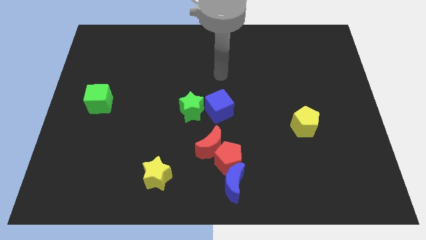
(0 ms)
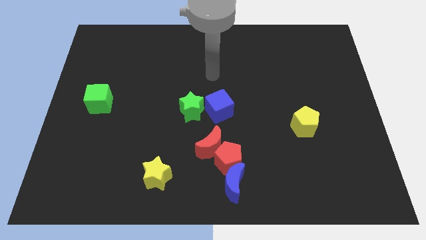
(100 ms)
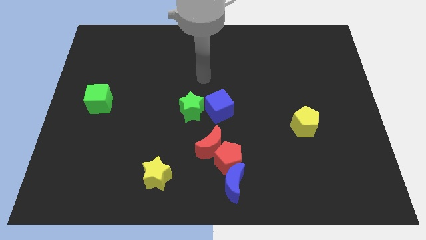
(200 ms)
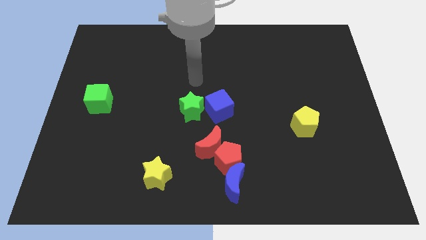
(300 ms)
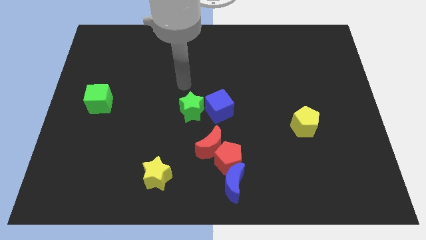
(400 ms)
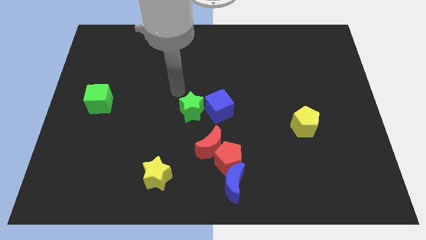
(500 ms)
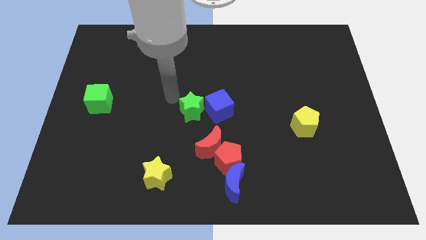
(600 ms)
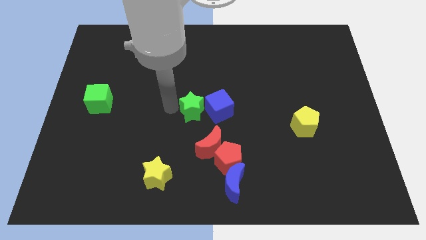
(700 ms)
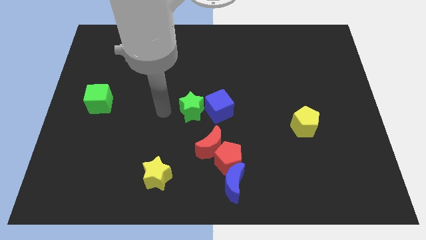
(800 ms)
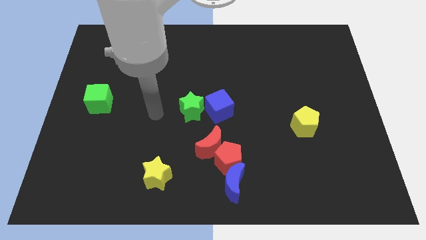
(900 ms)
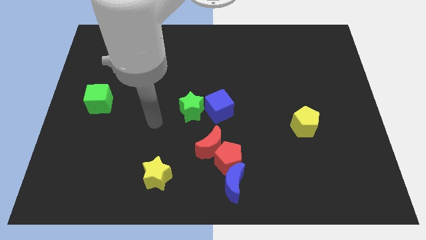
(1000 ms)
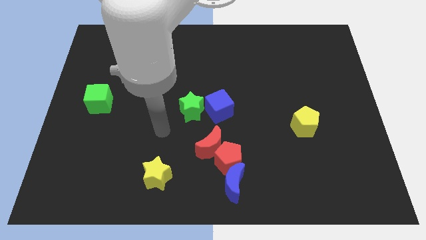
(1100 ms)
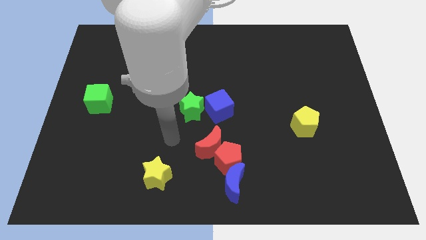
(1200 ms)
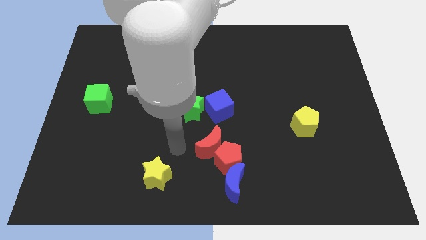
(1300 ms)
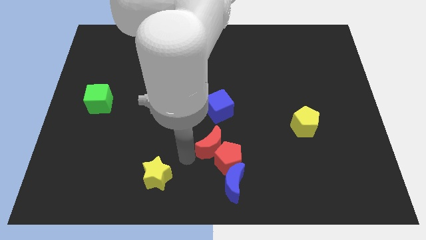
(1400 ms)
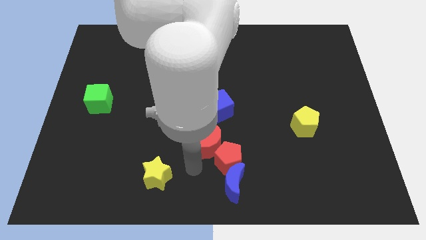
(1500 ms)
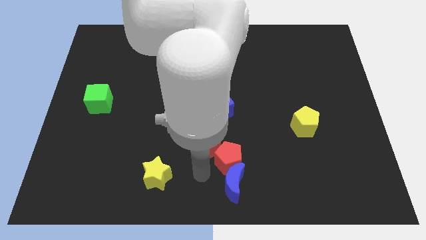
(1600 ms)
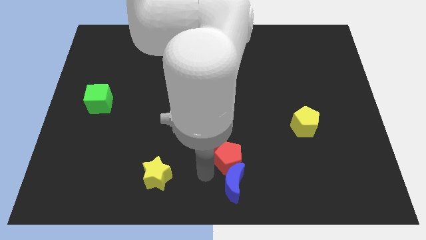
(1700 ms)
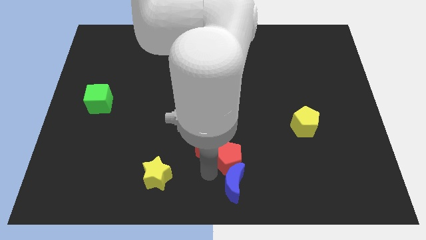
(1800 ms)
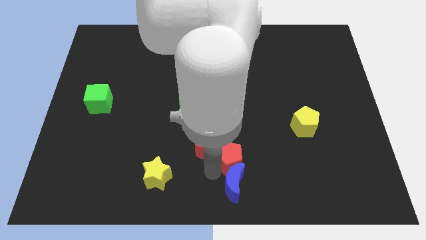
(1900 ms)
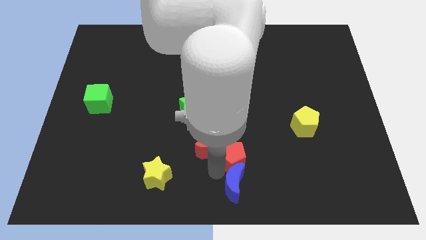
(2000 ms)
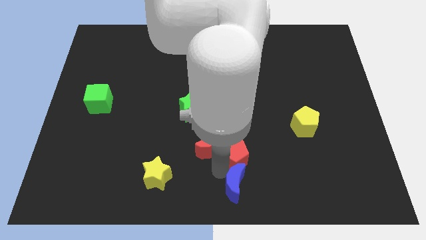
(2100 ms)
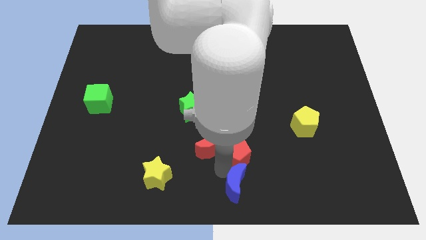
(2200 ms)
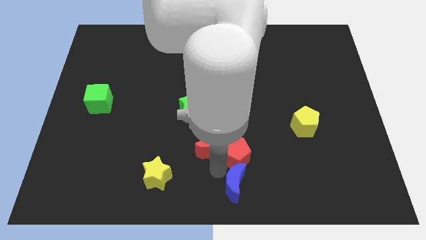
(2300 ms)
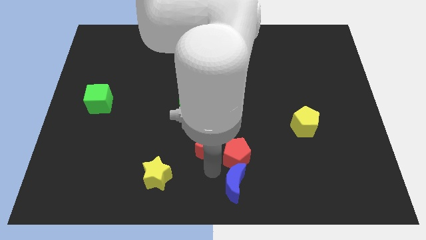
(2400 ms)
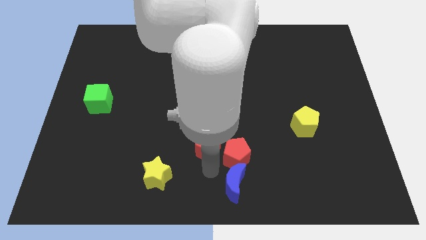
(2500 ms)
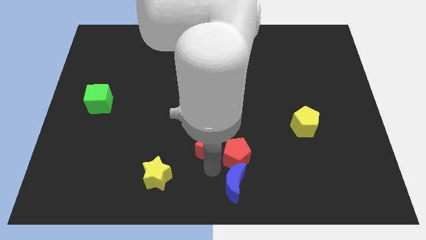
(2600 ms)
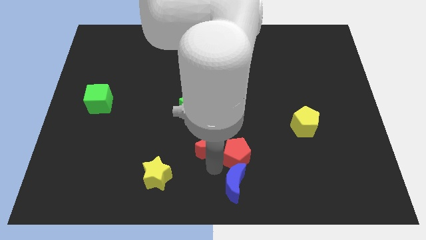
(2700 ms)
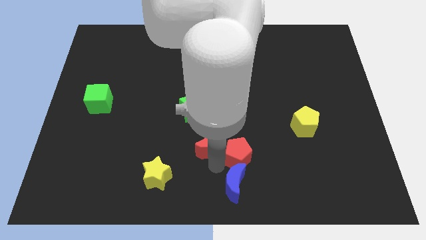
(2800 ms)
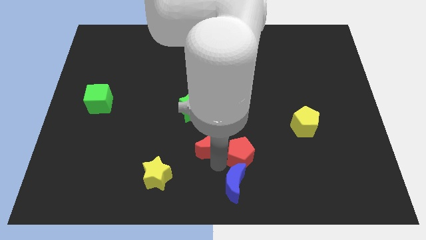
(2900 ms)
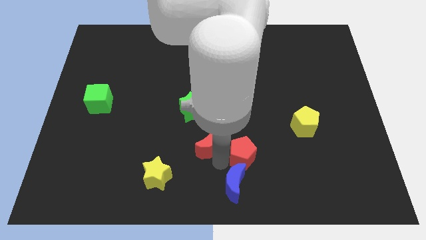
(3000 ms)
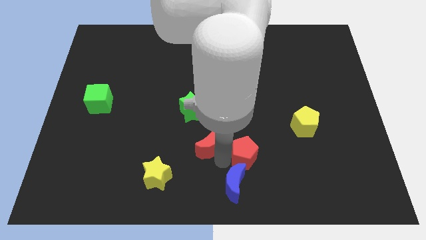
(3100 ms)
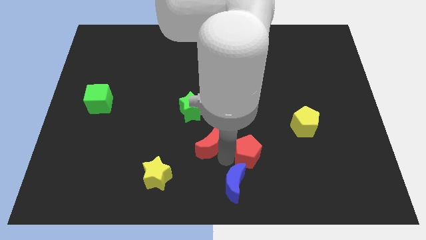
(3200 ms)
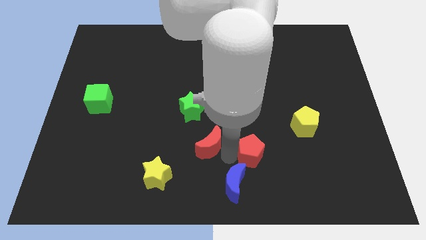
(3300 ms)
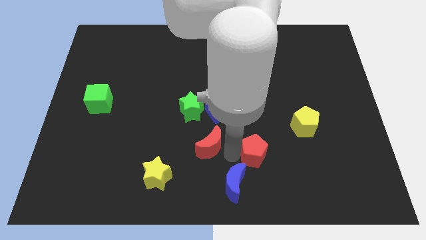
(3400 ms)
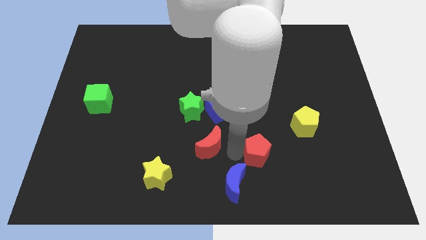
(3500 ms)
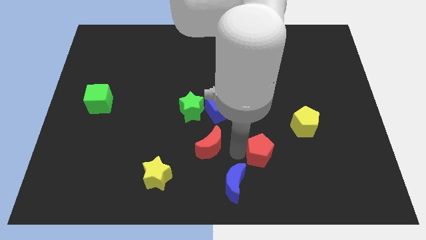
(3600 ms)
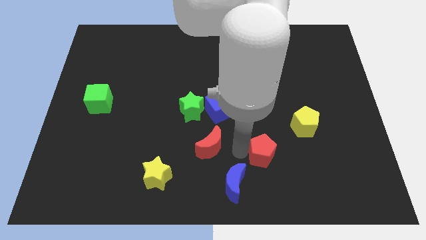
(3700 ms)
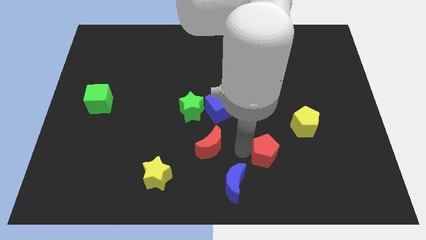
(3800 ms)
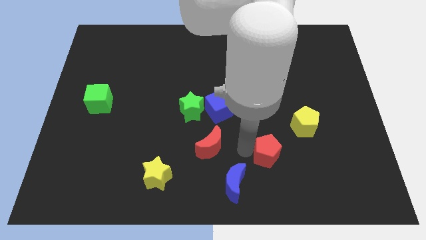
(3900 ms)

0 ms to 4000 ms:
separate the red pentagon from the red moon and blue moon

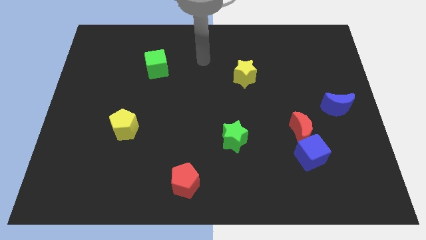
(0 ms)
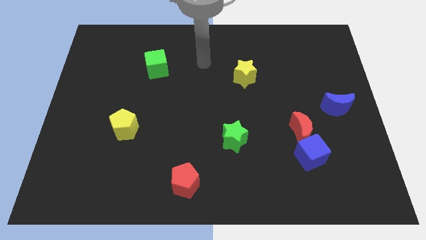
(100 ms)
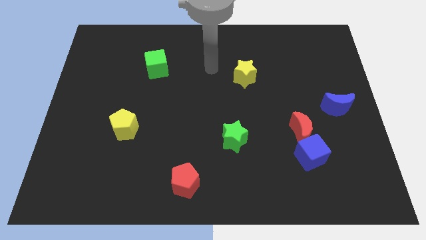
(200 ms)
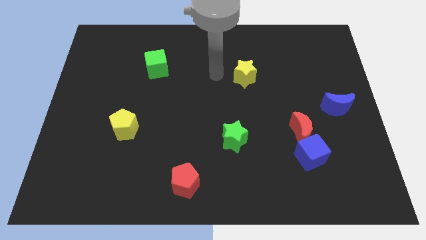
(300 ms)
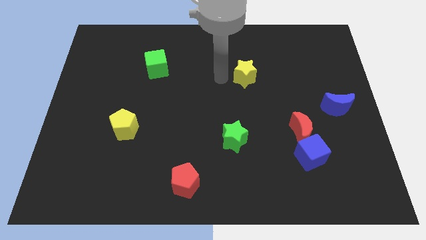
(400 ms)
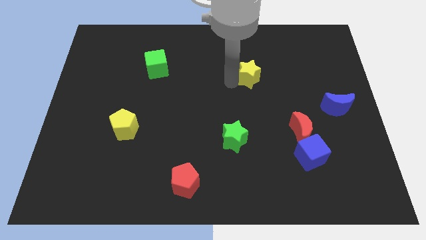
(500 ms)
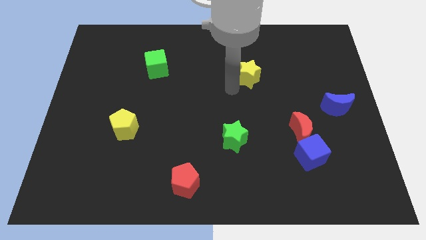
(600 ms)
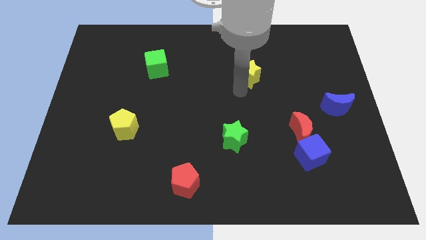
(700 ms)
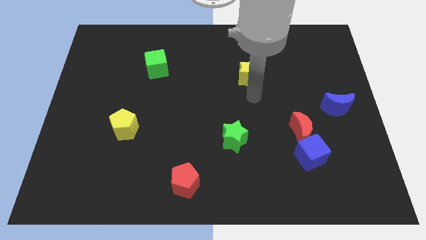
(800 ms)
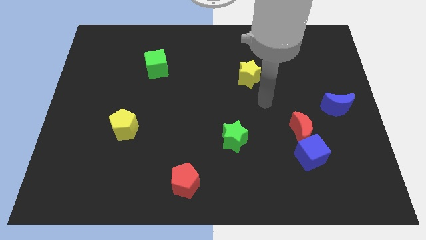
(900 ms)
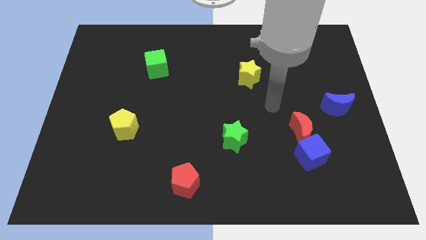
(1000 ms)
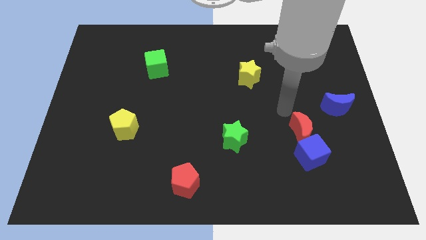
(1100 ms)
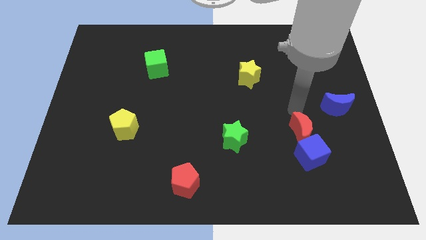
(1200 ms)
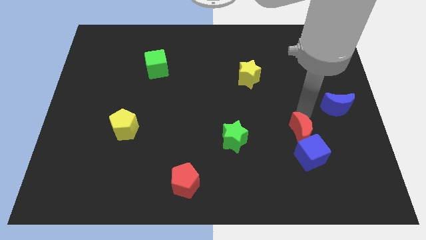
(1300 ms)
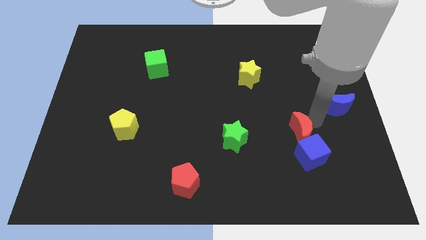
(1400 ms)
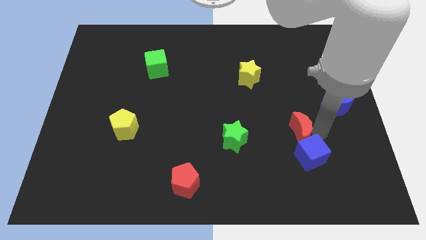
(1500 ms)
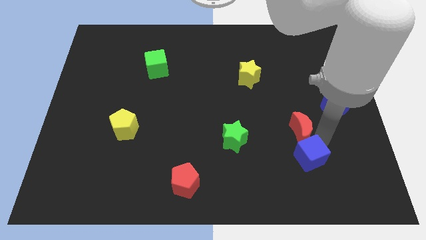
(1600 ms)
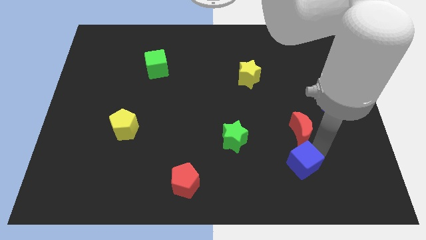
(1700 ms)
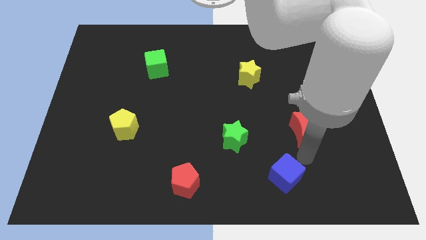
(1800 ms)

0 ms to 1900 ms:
move the red moon away from the blue cube

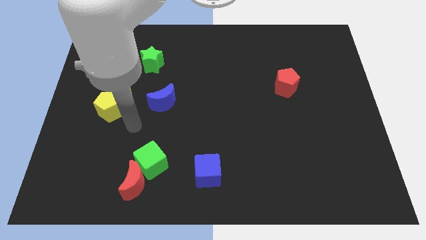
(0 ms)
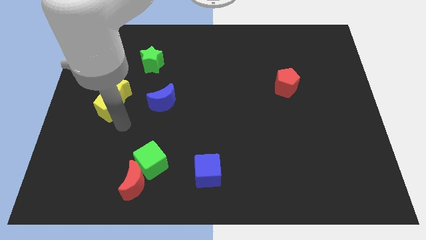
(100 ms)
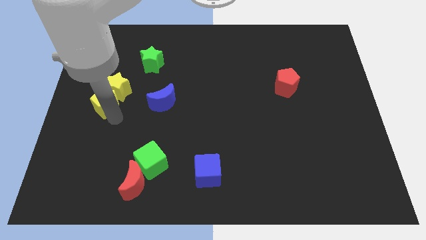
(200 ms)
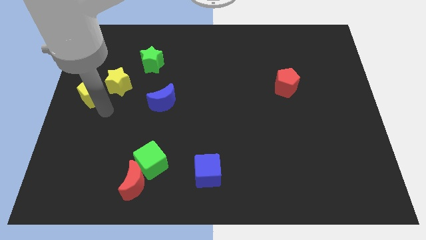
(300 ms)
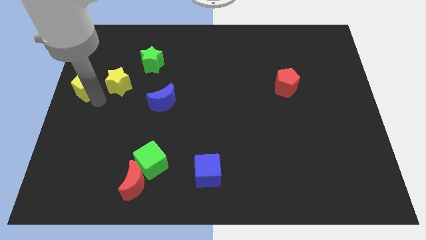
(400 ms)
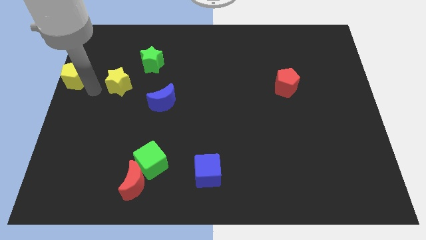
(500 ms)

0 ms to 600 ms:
separate the yellow star from the yellow pentagon

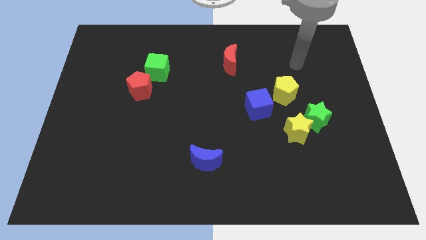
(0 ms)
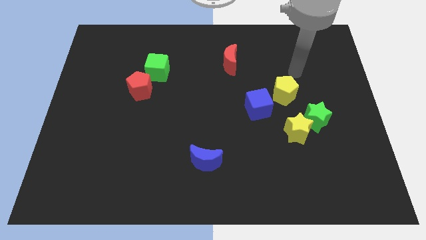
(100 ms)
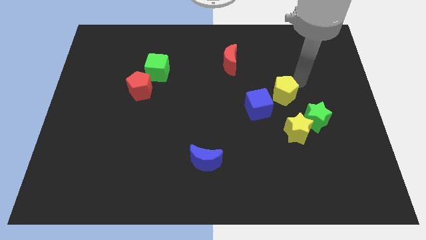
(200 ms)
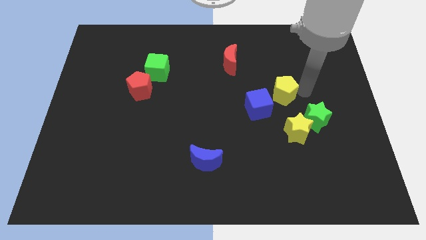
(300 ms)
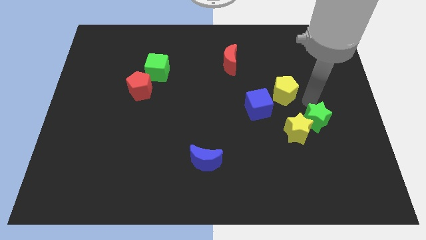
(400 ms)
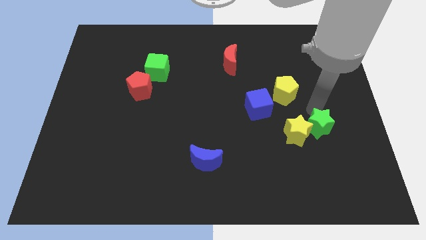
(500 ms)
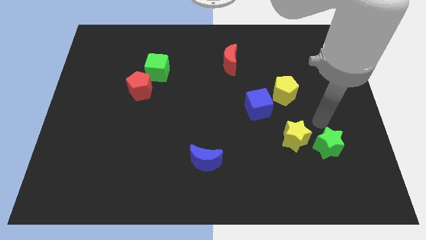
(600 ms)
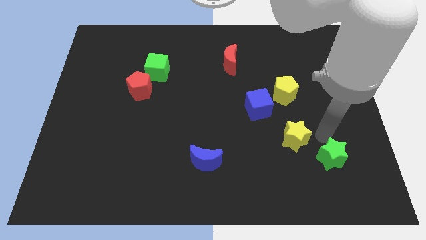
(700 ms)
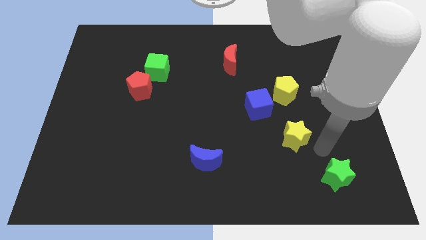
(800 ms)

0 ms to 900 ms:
separate the yellow star from the green star

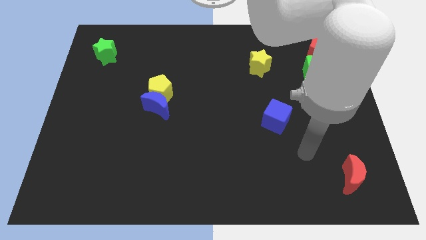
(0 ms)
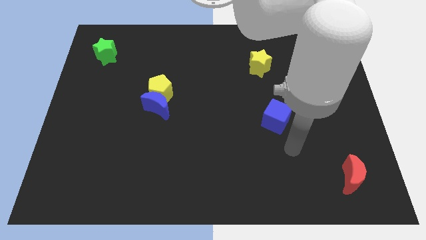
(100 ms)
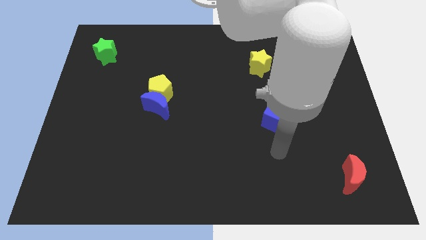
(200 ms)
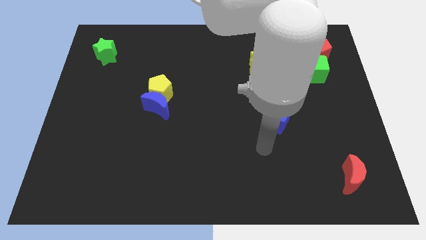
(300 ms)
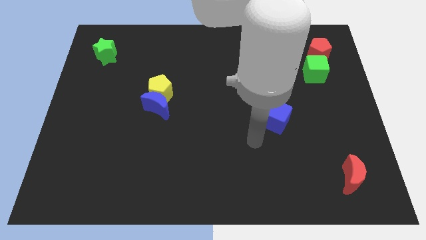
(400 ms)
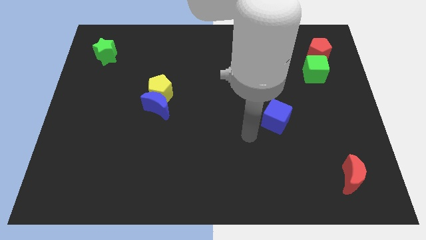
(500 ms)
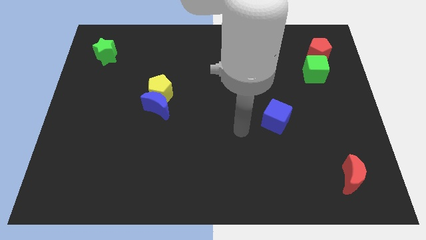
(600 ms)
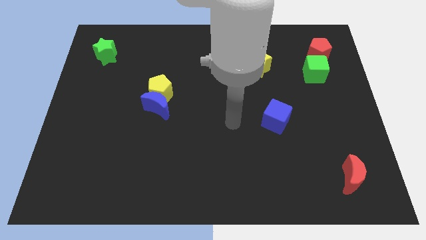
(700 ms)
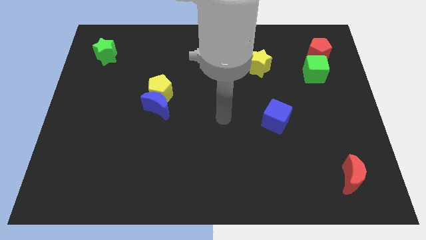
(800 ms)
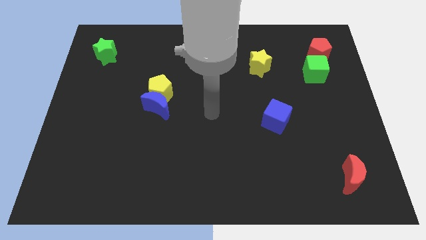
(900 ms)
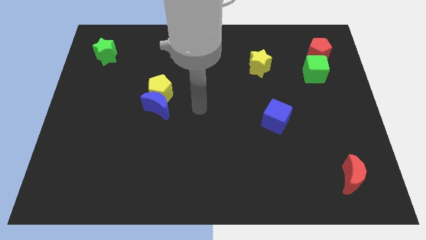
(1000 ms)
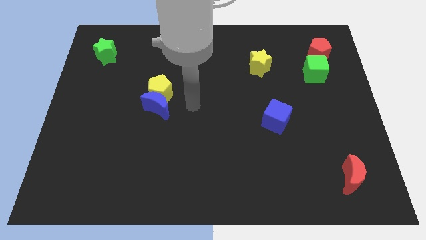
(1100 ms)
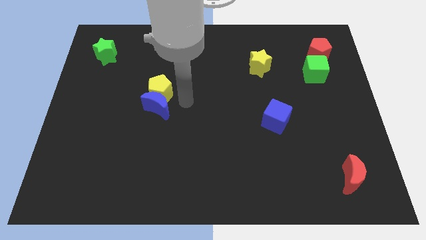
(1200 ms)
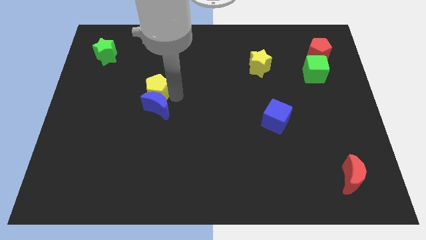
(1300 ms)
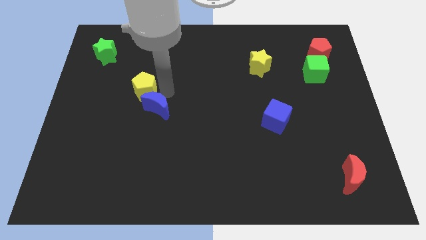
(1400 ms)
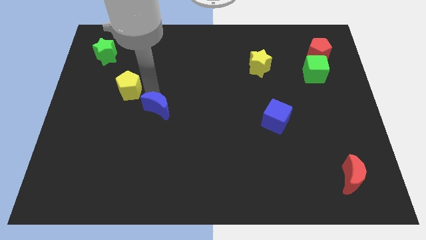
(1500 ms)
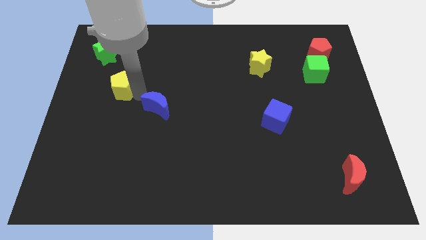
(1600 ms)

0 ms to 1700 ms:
pull the blue moon apart from the yellow pentagon

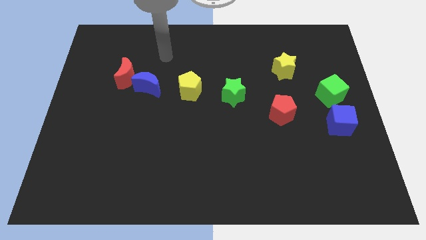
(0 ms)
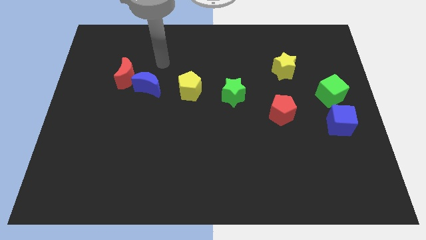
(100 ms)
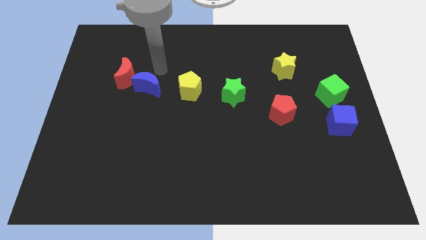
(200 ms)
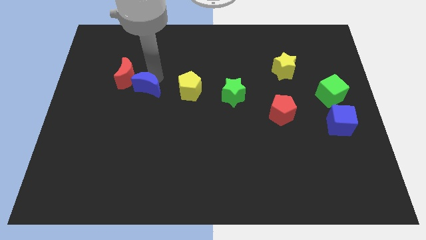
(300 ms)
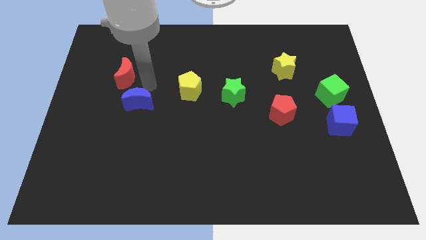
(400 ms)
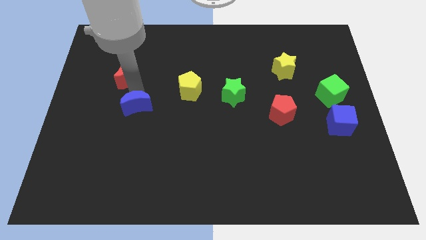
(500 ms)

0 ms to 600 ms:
separate the red moon from the blue moon
